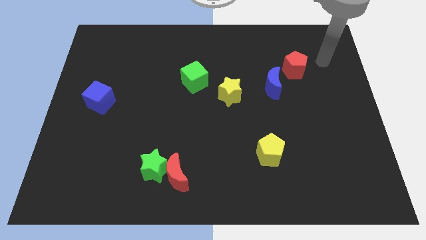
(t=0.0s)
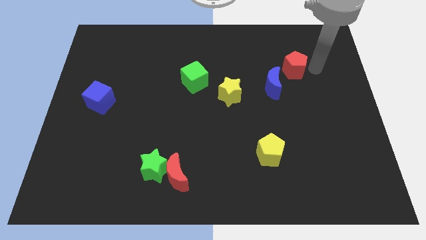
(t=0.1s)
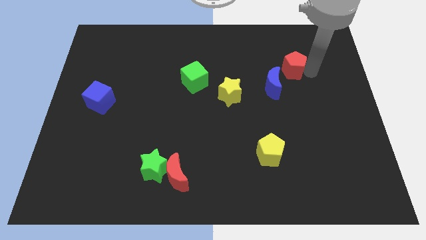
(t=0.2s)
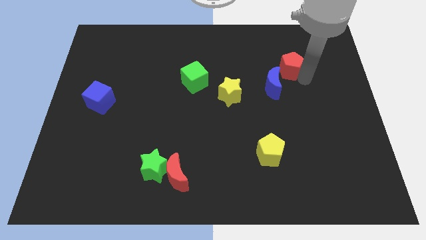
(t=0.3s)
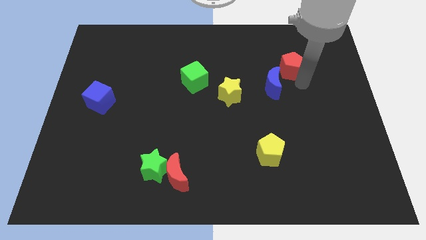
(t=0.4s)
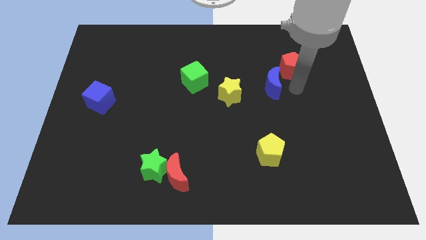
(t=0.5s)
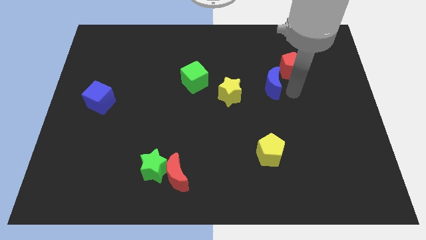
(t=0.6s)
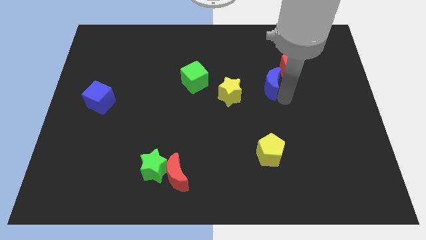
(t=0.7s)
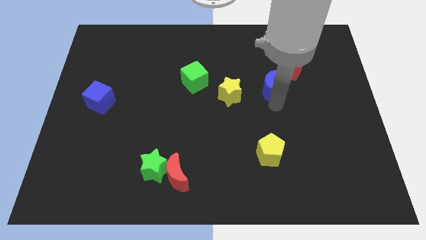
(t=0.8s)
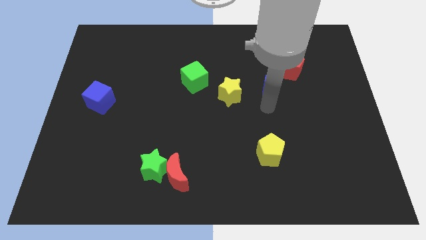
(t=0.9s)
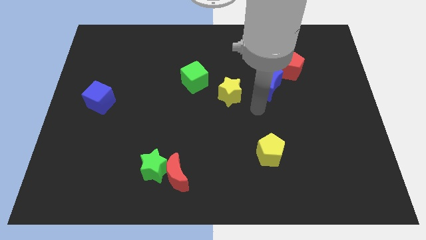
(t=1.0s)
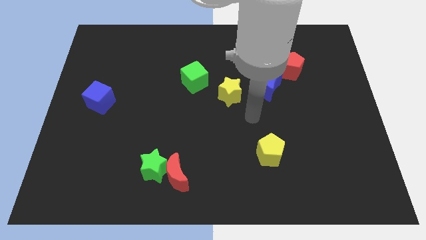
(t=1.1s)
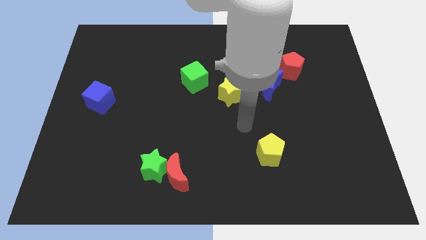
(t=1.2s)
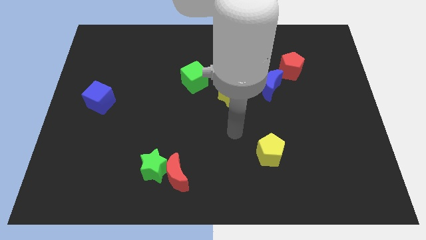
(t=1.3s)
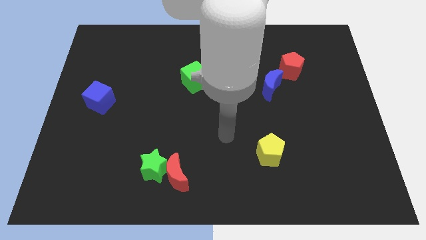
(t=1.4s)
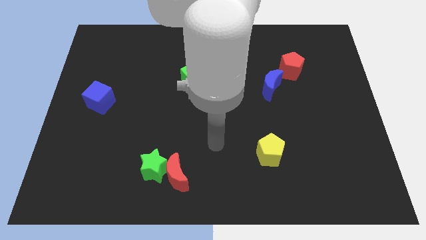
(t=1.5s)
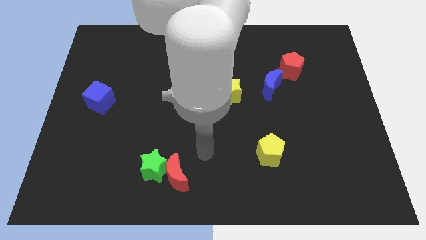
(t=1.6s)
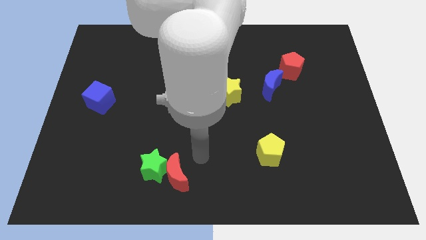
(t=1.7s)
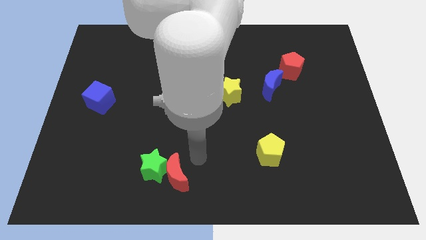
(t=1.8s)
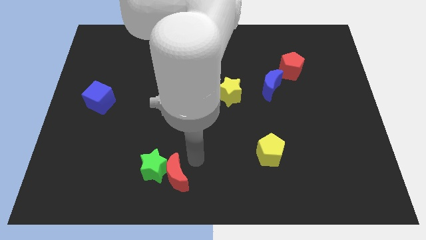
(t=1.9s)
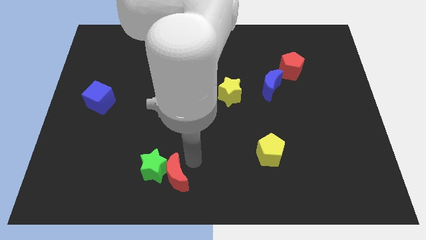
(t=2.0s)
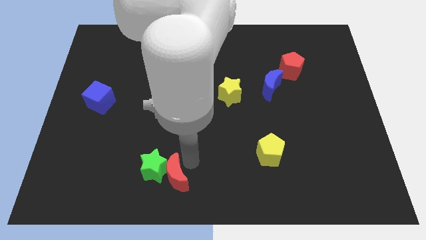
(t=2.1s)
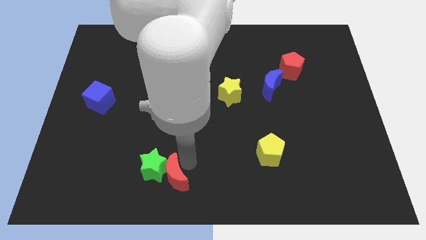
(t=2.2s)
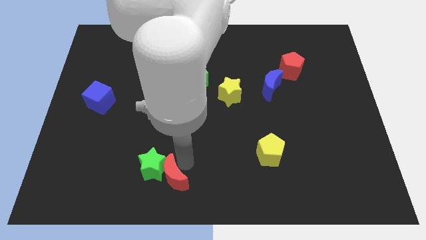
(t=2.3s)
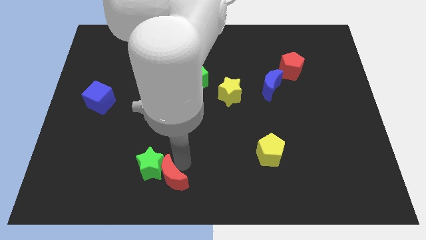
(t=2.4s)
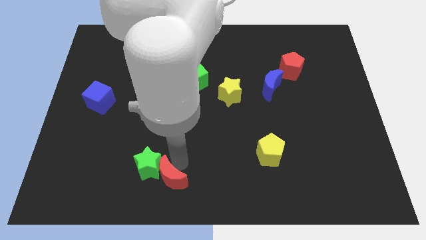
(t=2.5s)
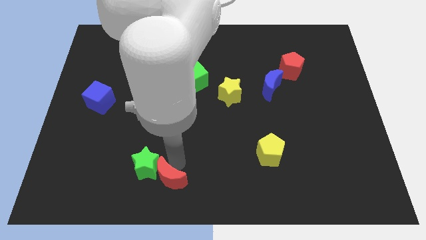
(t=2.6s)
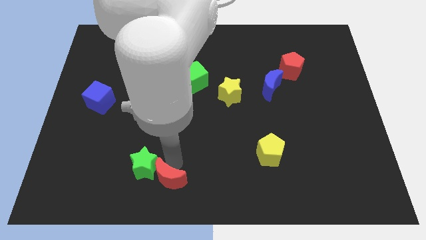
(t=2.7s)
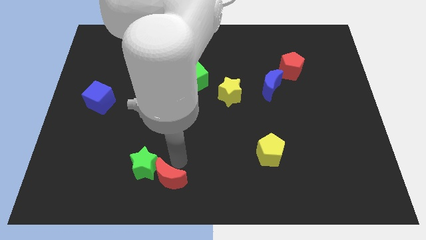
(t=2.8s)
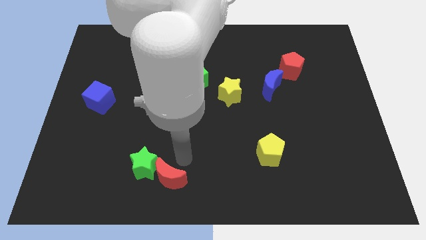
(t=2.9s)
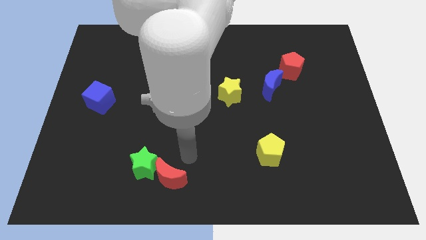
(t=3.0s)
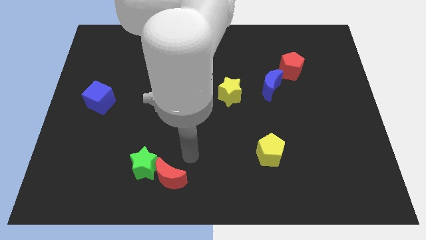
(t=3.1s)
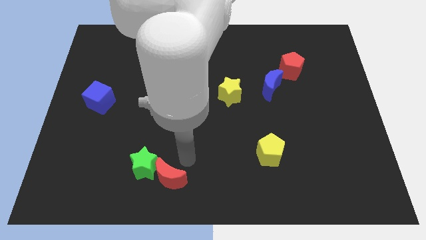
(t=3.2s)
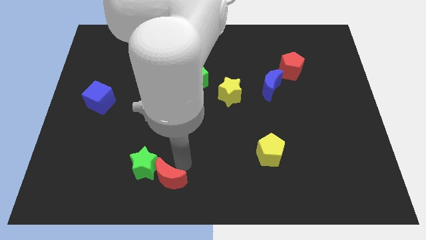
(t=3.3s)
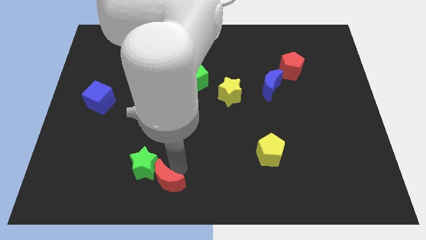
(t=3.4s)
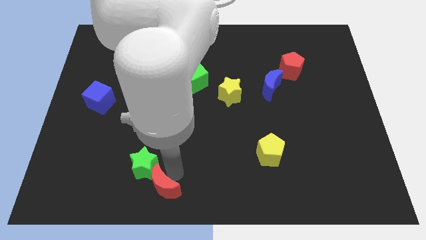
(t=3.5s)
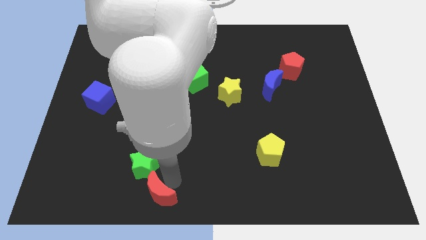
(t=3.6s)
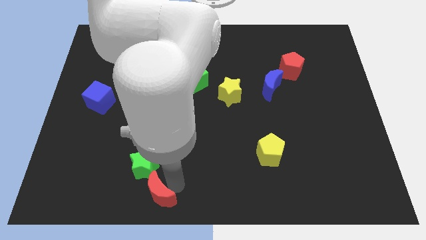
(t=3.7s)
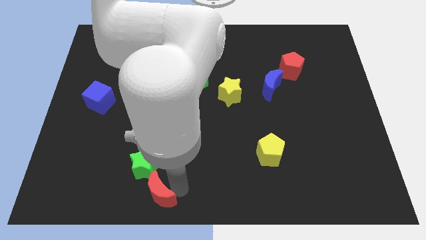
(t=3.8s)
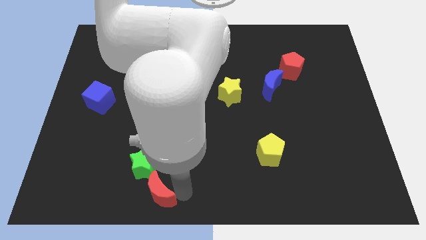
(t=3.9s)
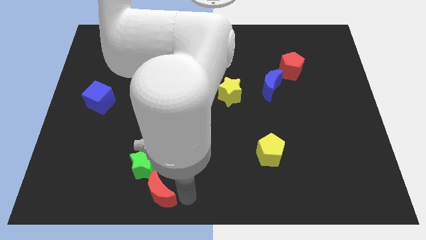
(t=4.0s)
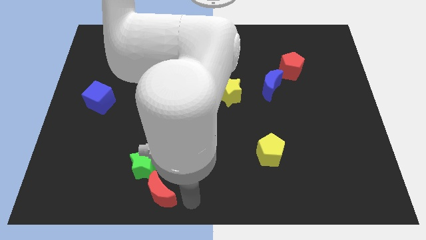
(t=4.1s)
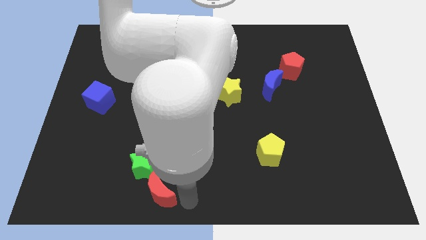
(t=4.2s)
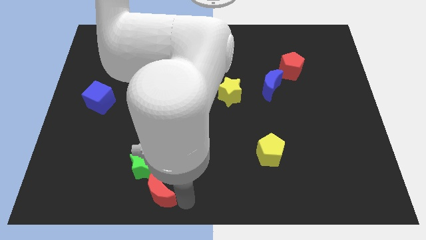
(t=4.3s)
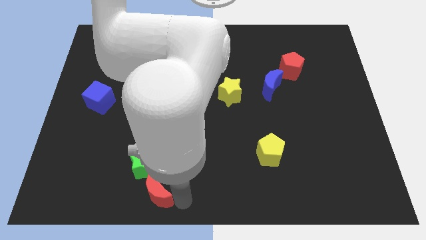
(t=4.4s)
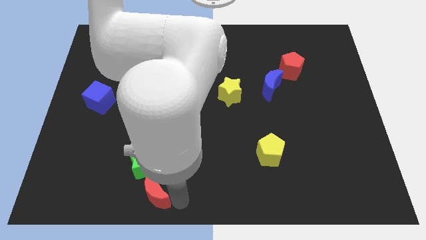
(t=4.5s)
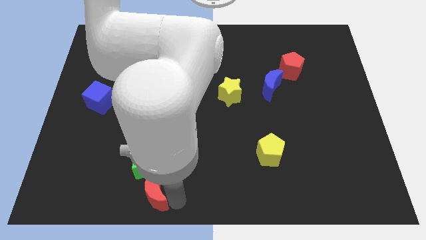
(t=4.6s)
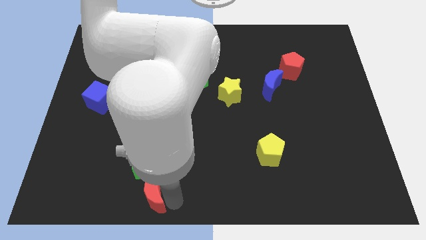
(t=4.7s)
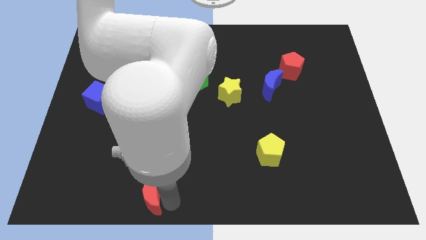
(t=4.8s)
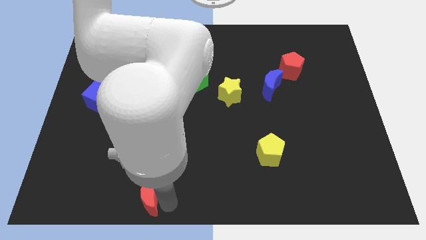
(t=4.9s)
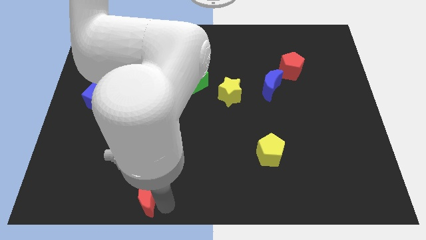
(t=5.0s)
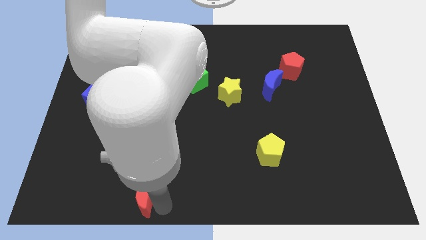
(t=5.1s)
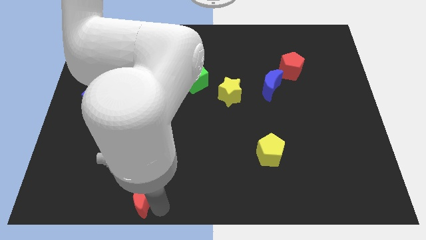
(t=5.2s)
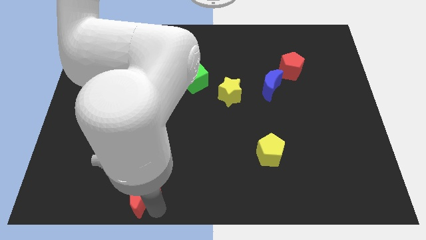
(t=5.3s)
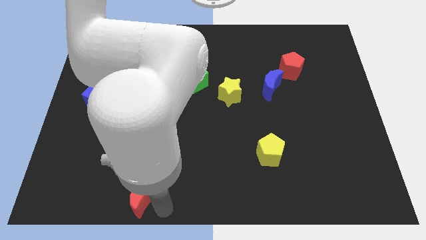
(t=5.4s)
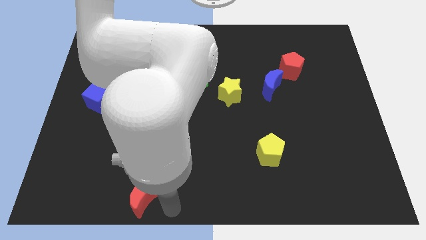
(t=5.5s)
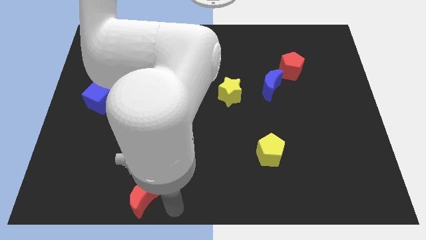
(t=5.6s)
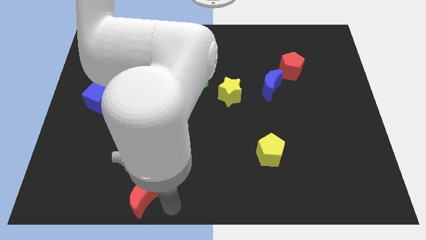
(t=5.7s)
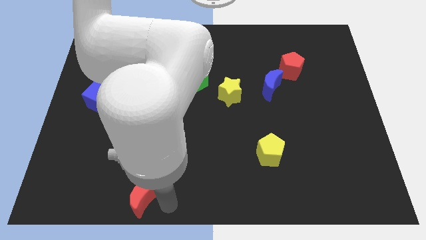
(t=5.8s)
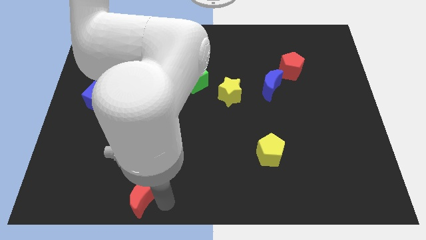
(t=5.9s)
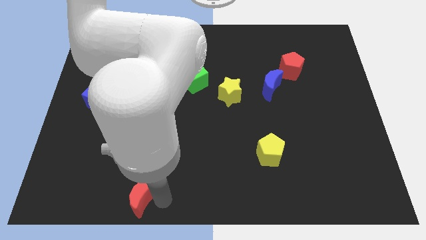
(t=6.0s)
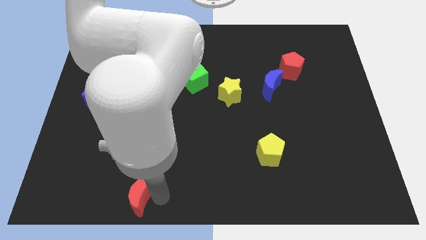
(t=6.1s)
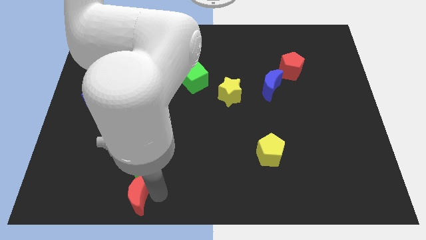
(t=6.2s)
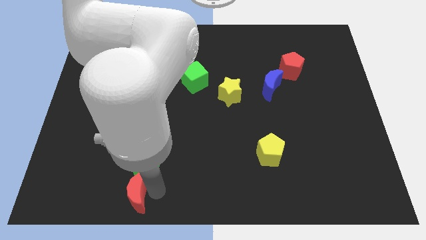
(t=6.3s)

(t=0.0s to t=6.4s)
slightly push the red moon to the left

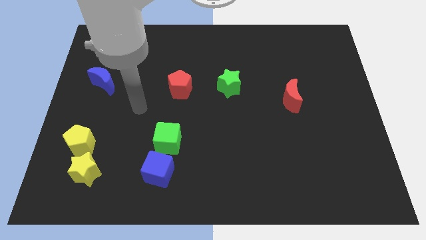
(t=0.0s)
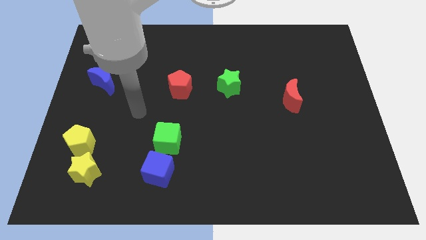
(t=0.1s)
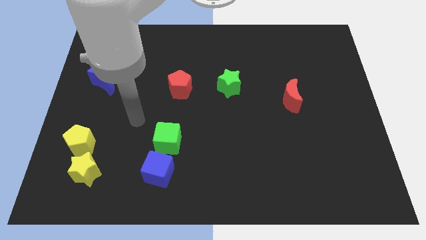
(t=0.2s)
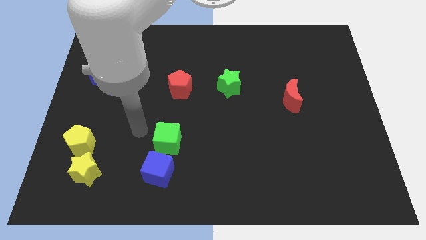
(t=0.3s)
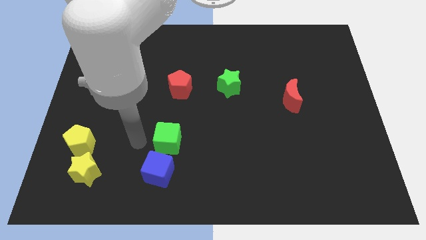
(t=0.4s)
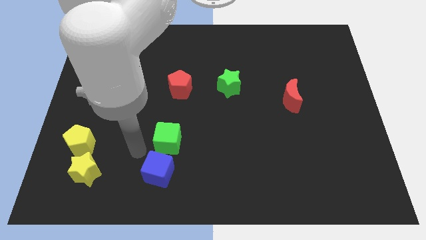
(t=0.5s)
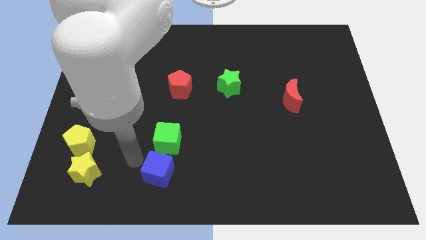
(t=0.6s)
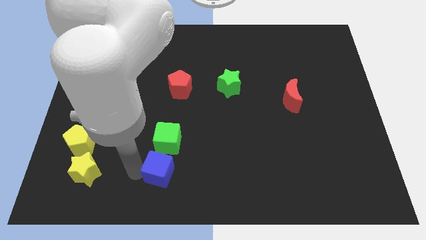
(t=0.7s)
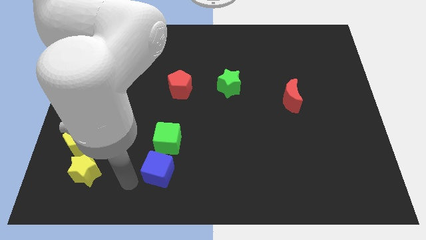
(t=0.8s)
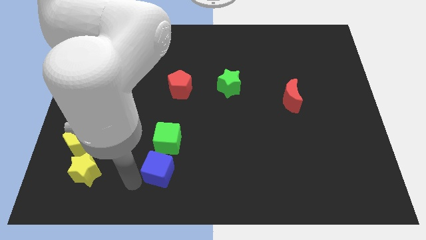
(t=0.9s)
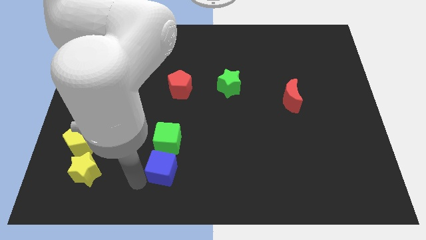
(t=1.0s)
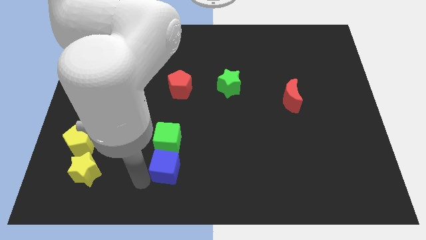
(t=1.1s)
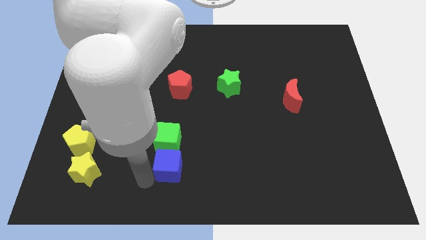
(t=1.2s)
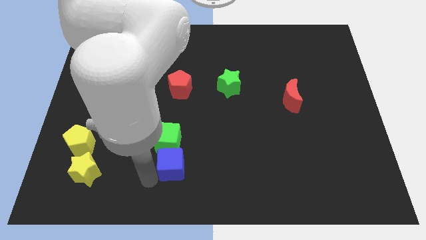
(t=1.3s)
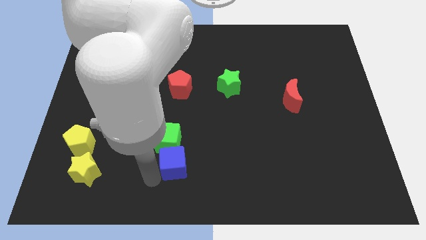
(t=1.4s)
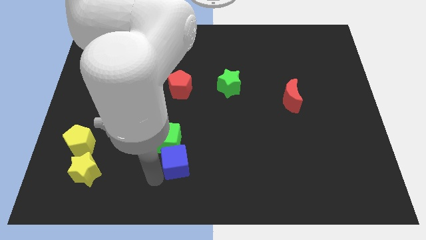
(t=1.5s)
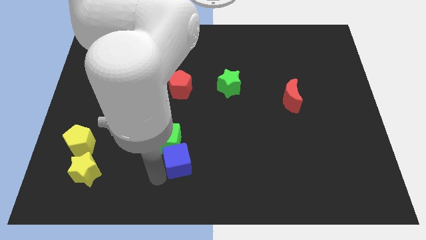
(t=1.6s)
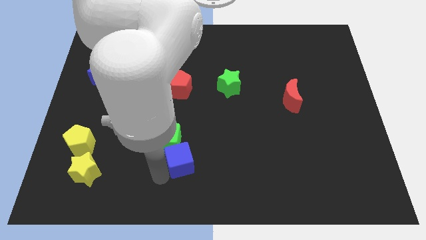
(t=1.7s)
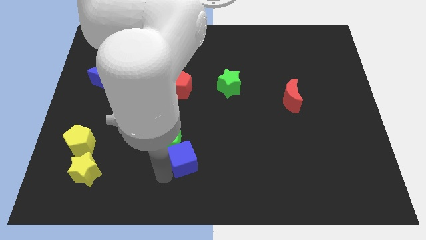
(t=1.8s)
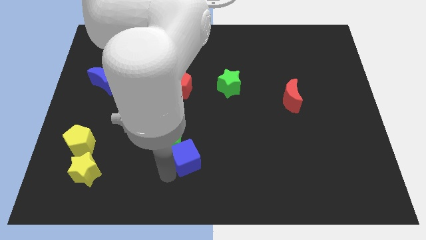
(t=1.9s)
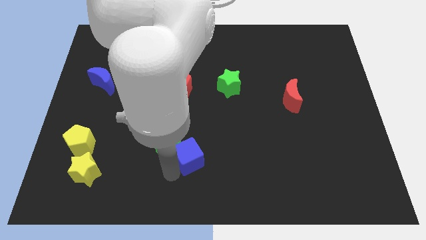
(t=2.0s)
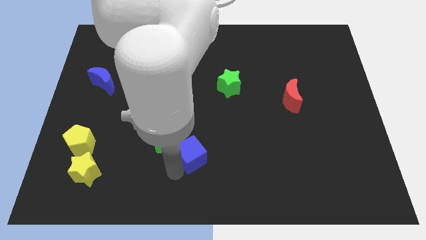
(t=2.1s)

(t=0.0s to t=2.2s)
slightly slide the blue cube upwards and to the right
